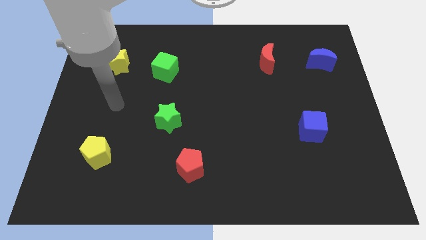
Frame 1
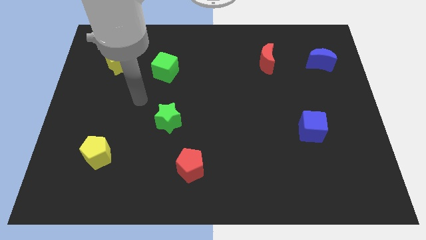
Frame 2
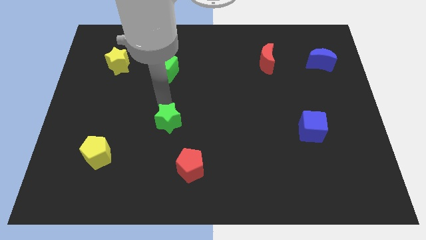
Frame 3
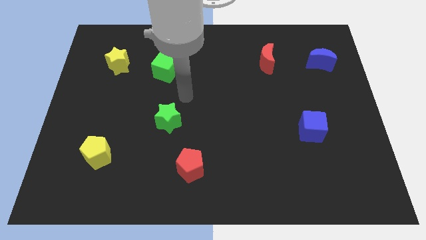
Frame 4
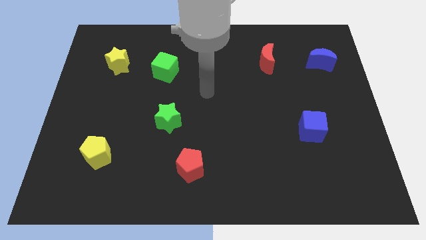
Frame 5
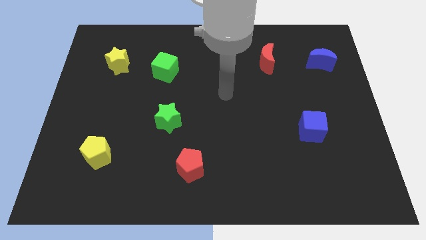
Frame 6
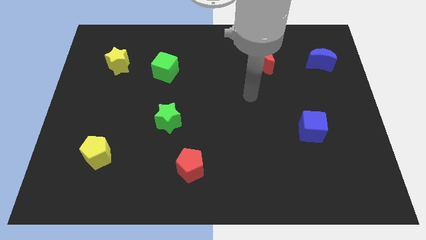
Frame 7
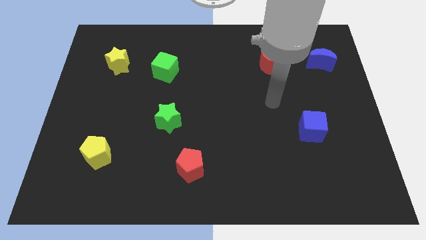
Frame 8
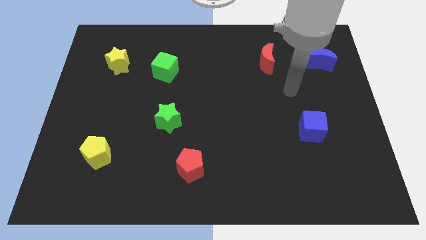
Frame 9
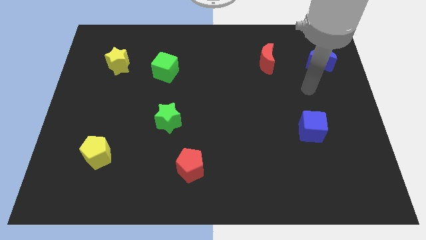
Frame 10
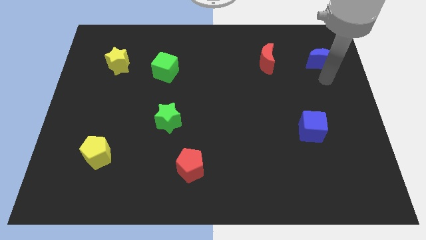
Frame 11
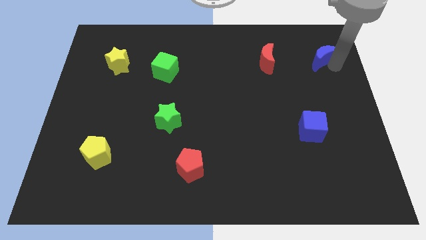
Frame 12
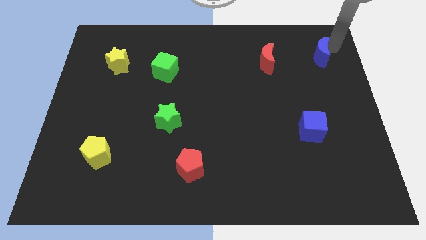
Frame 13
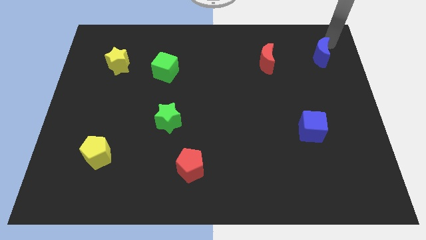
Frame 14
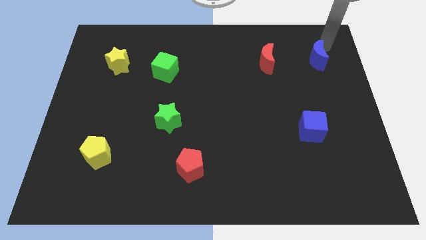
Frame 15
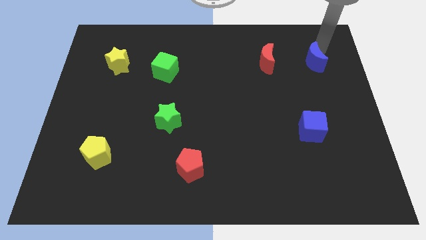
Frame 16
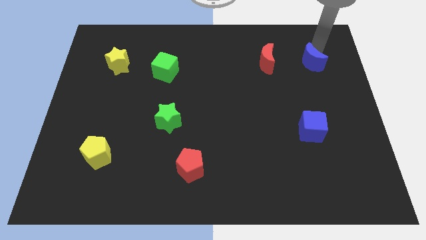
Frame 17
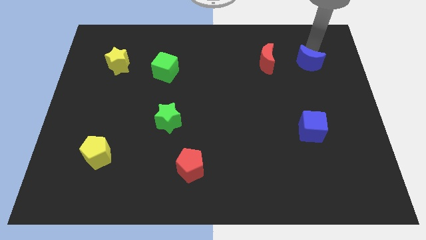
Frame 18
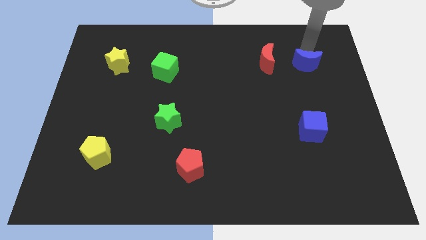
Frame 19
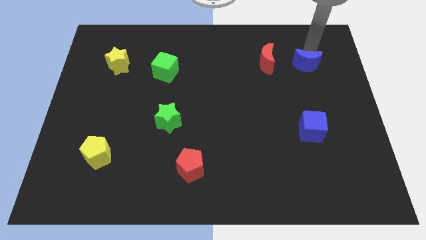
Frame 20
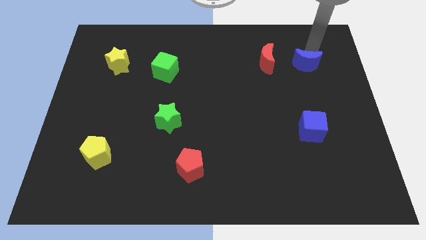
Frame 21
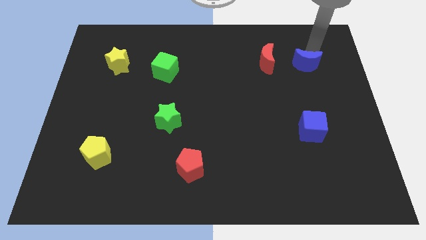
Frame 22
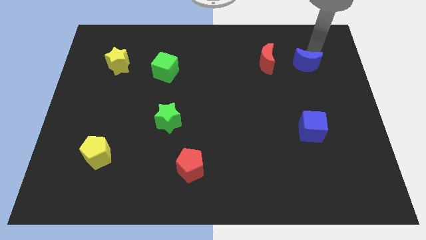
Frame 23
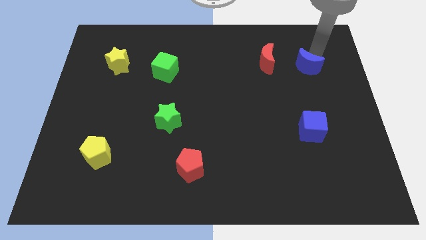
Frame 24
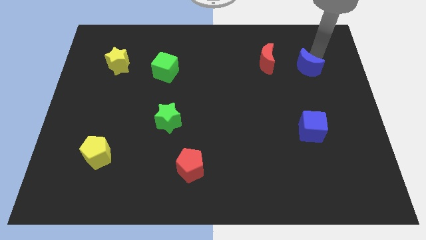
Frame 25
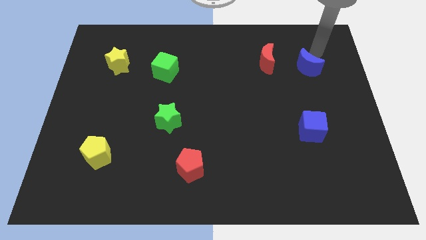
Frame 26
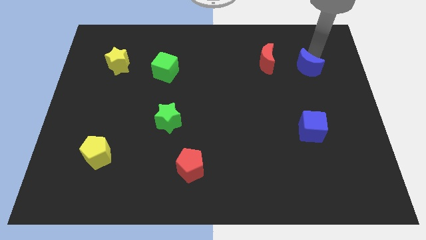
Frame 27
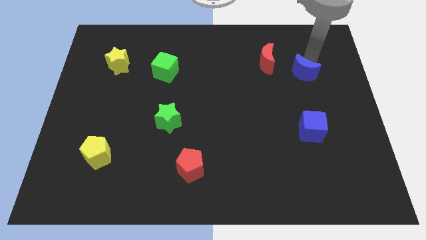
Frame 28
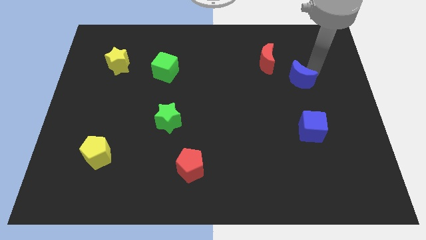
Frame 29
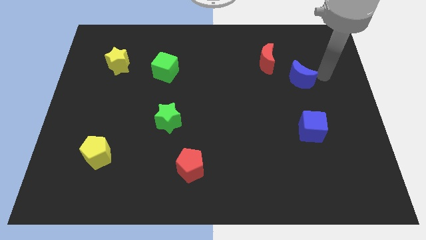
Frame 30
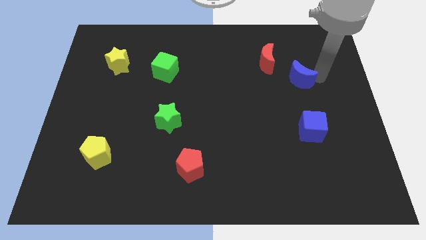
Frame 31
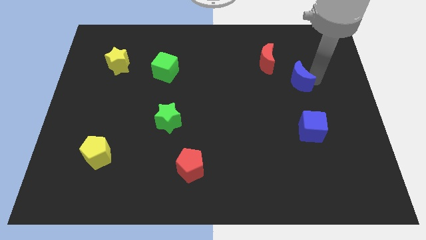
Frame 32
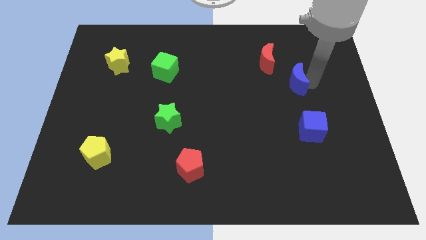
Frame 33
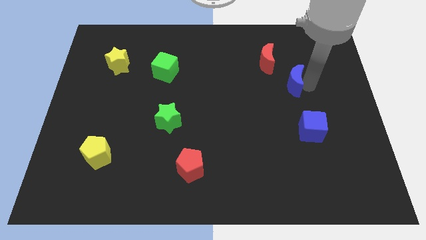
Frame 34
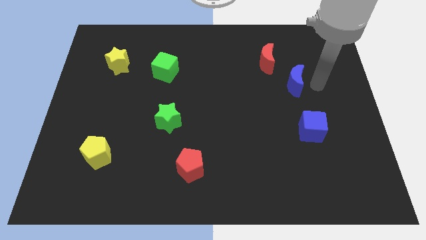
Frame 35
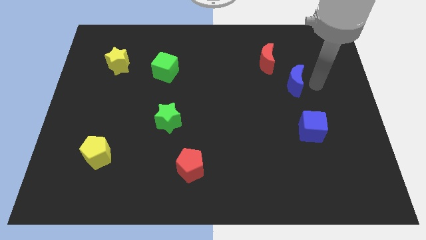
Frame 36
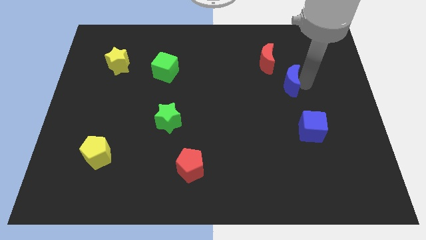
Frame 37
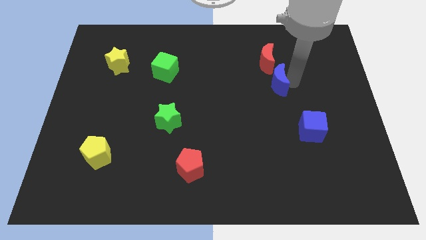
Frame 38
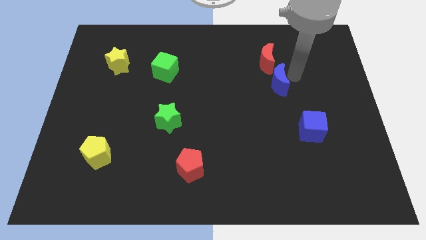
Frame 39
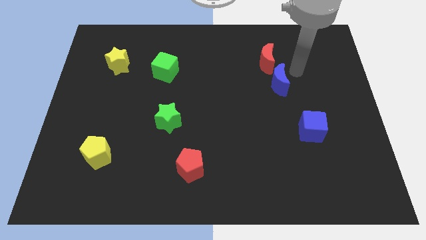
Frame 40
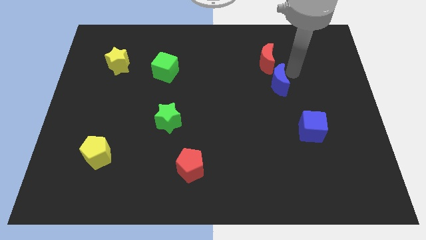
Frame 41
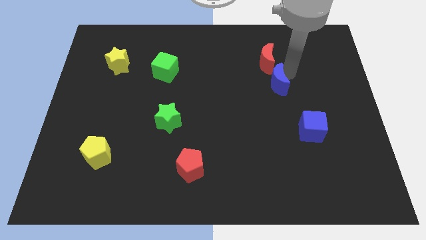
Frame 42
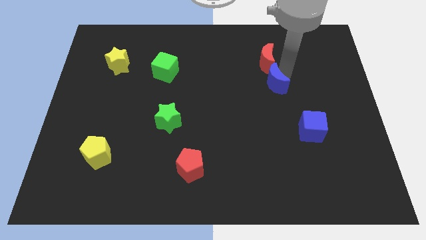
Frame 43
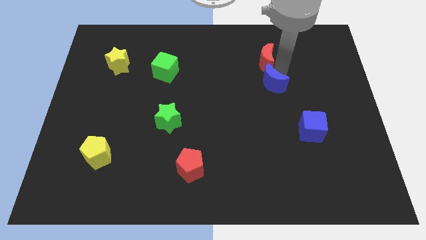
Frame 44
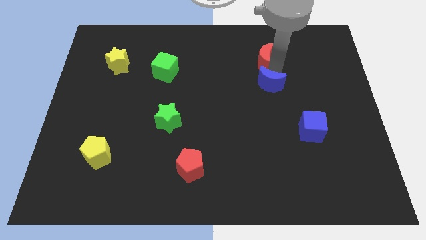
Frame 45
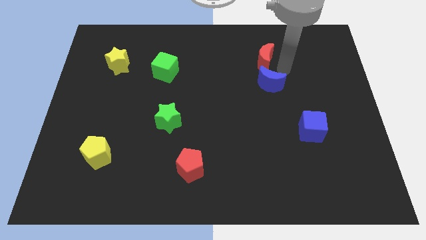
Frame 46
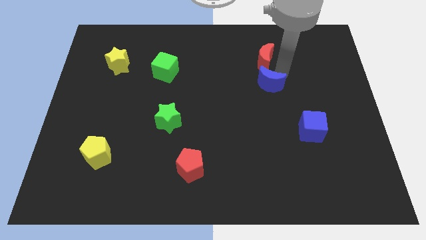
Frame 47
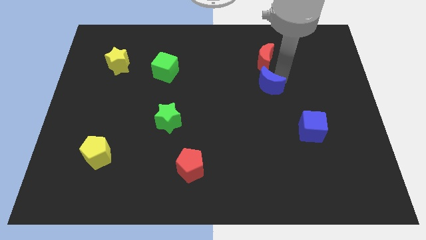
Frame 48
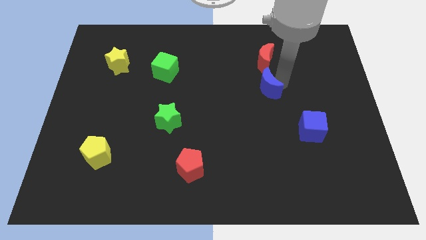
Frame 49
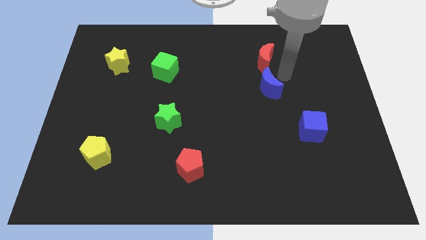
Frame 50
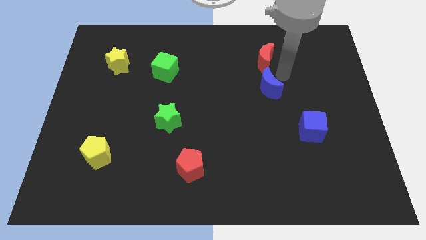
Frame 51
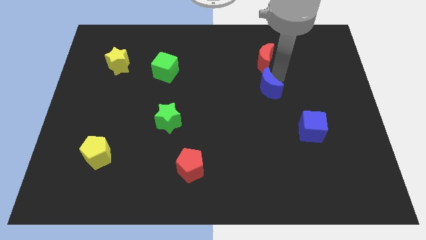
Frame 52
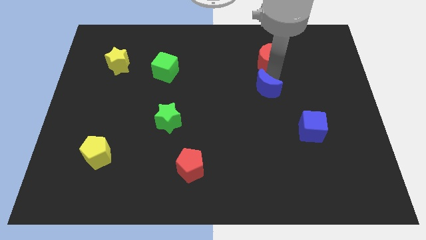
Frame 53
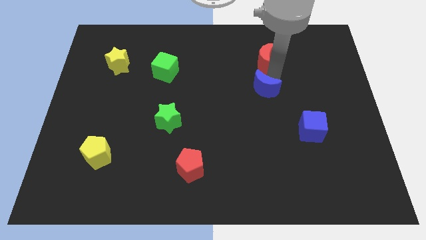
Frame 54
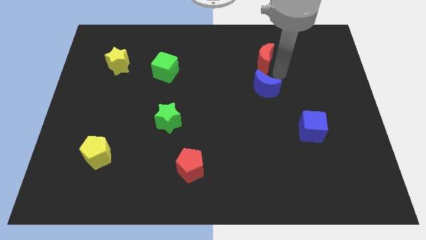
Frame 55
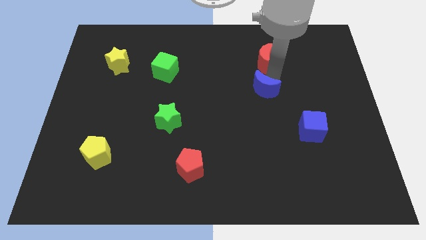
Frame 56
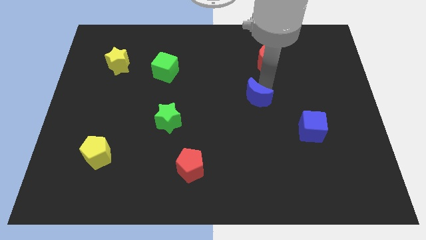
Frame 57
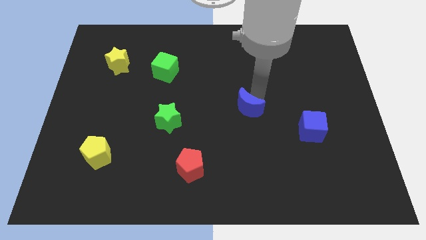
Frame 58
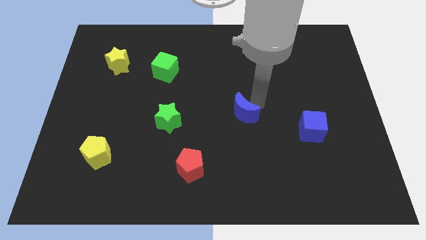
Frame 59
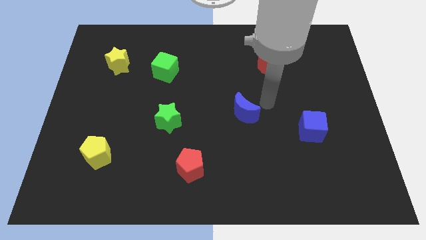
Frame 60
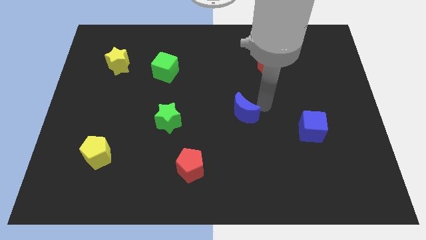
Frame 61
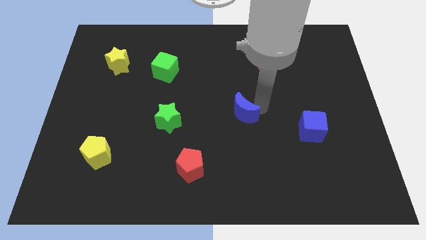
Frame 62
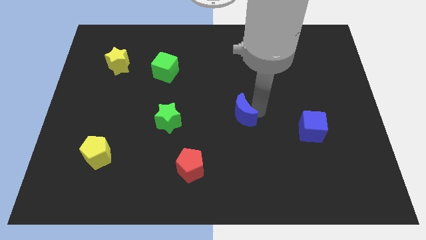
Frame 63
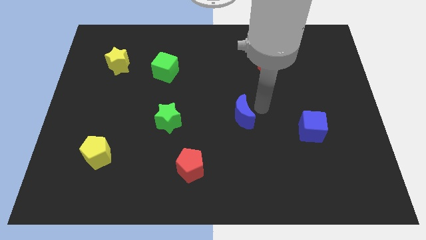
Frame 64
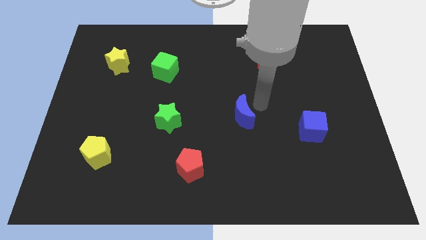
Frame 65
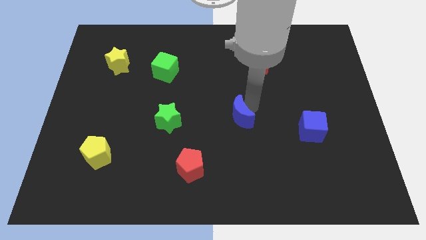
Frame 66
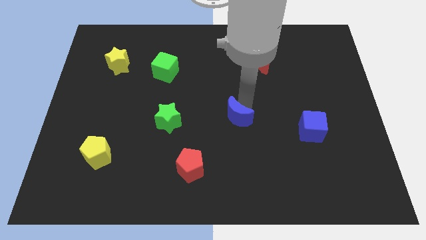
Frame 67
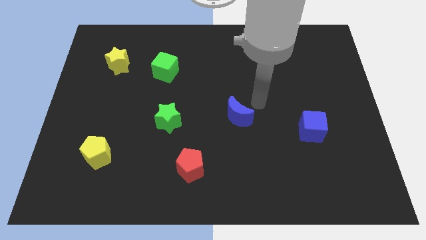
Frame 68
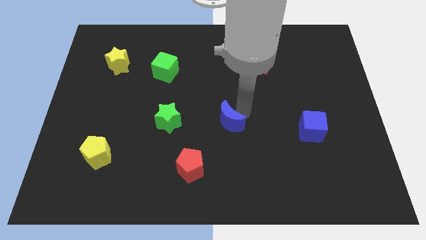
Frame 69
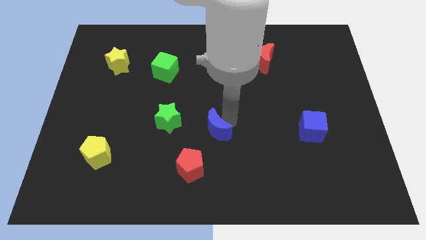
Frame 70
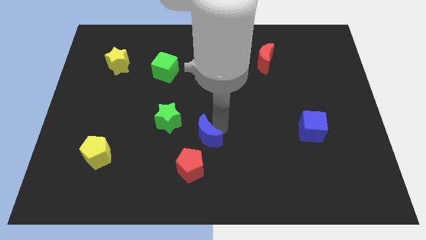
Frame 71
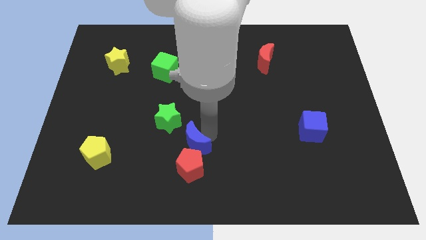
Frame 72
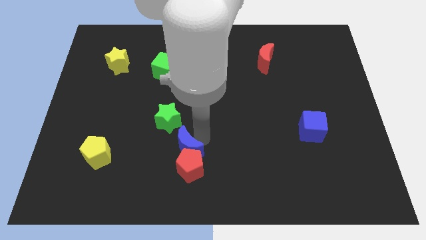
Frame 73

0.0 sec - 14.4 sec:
slide the blue moon below the green star

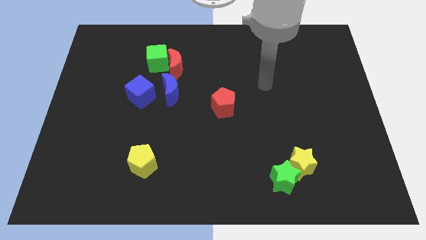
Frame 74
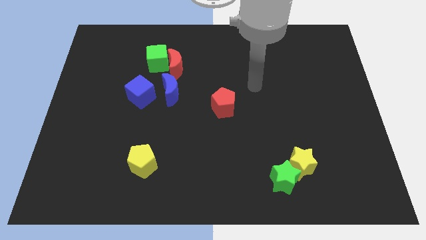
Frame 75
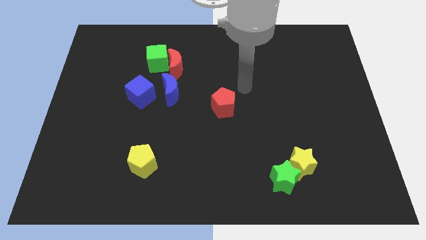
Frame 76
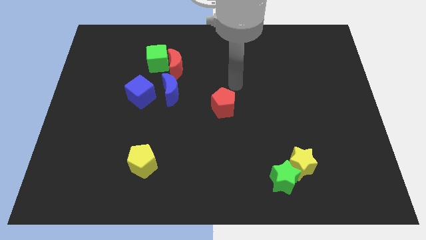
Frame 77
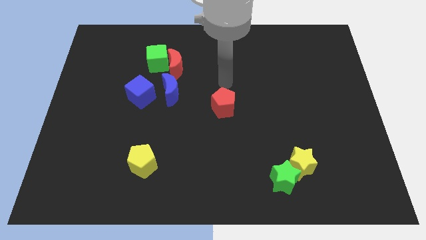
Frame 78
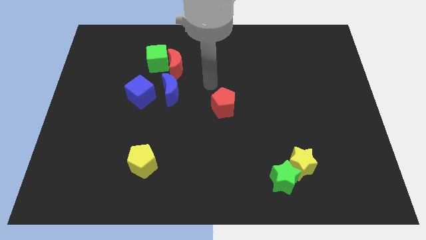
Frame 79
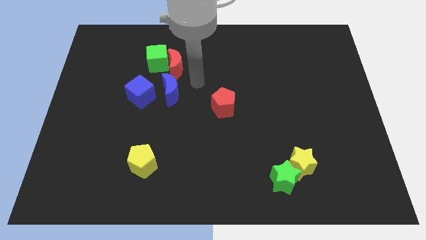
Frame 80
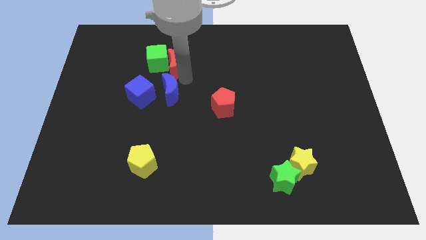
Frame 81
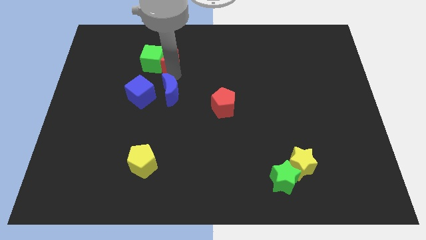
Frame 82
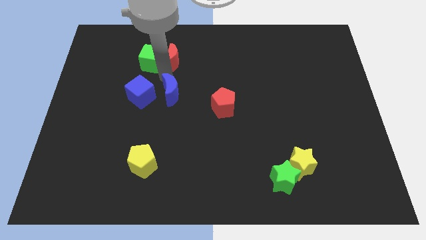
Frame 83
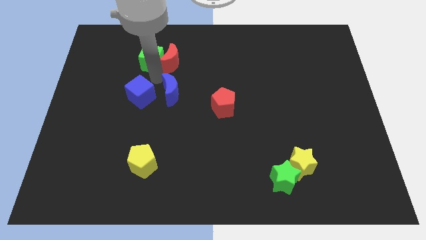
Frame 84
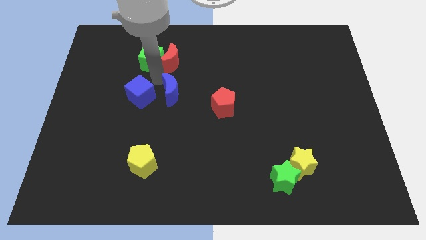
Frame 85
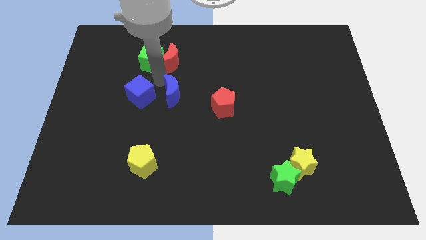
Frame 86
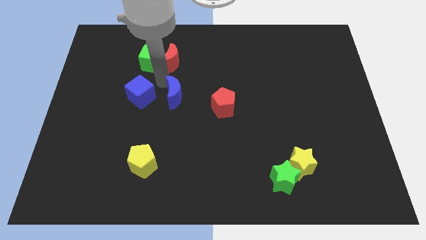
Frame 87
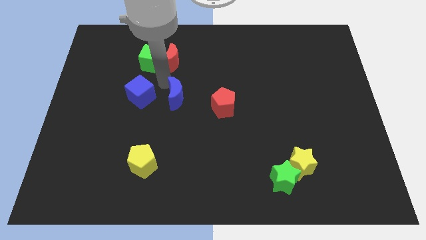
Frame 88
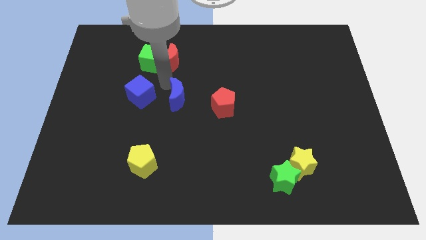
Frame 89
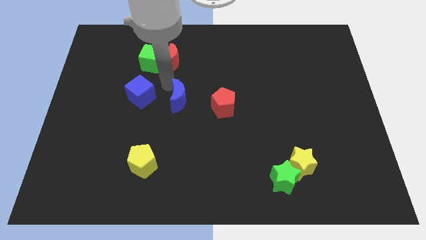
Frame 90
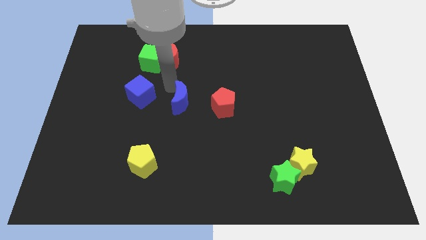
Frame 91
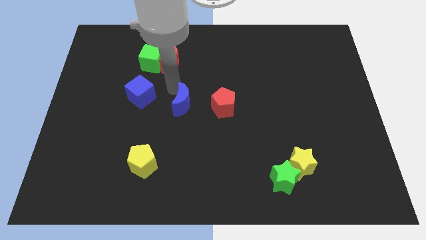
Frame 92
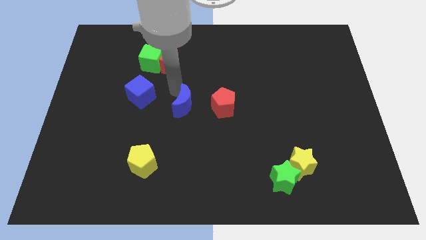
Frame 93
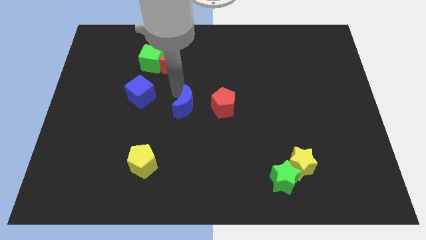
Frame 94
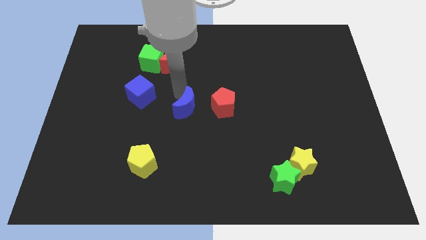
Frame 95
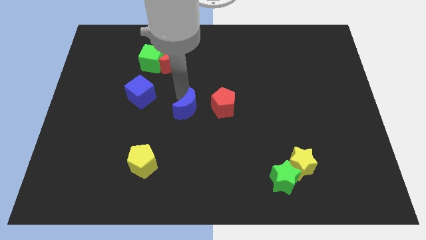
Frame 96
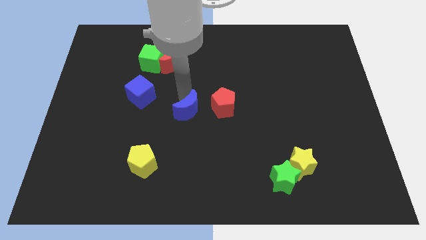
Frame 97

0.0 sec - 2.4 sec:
move the blue moon diagonally down and to the left of the red pentagon
